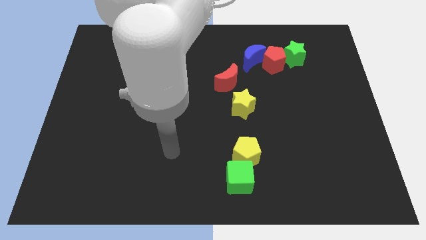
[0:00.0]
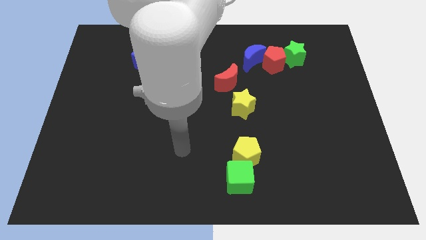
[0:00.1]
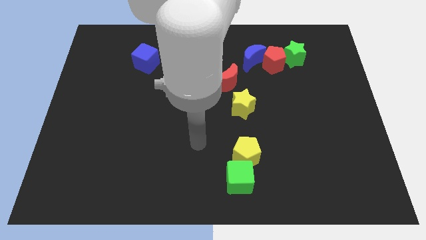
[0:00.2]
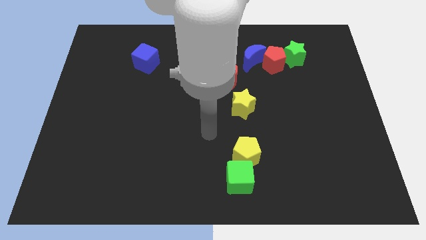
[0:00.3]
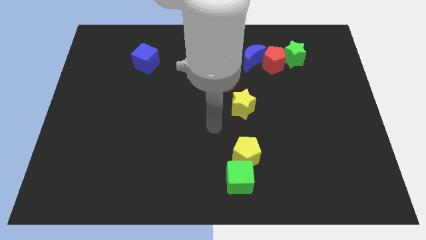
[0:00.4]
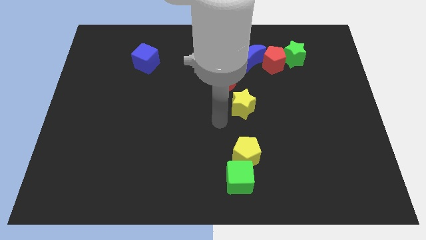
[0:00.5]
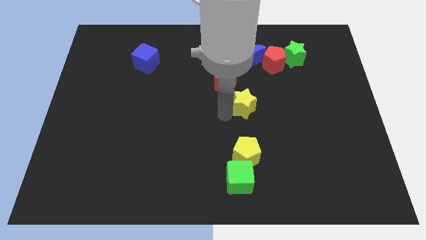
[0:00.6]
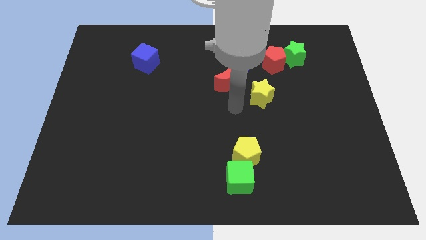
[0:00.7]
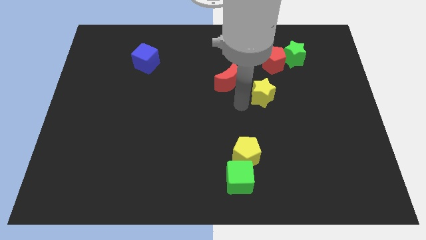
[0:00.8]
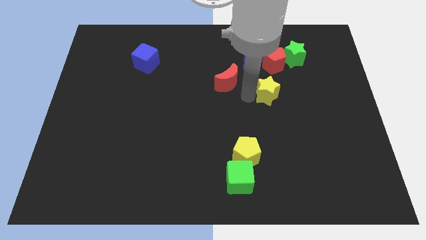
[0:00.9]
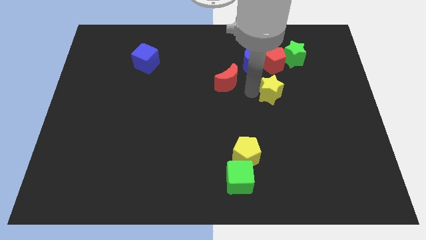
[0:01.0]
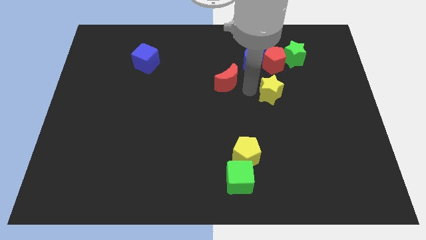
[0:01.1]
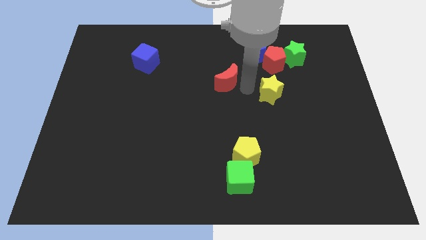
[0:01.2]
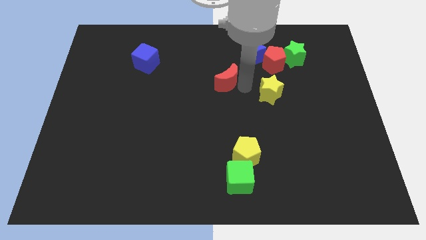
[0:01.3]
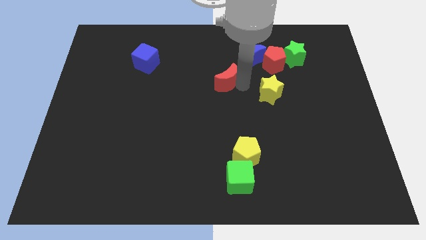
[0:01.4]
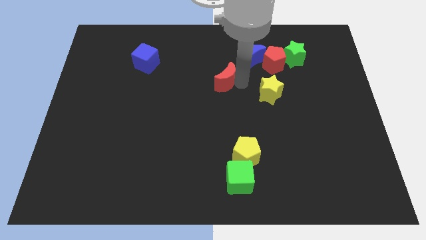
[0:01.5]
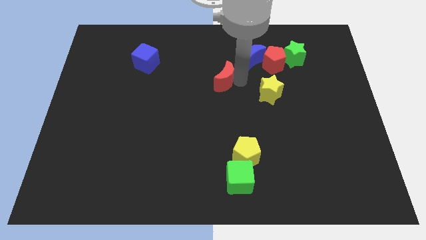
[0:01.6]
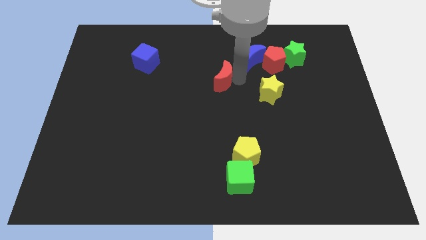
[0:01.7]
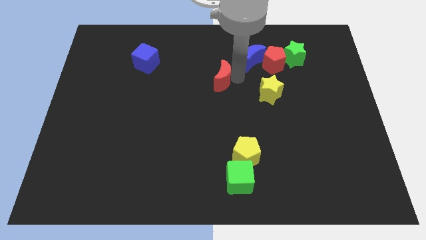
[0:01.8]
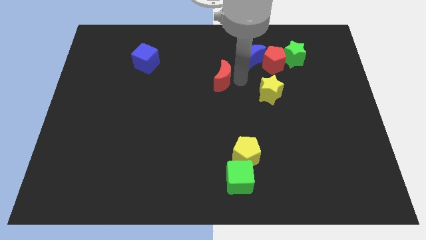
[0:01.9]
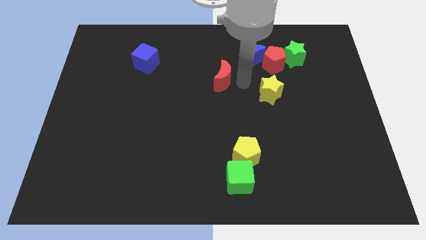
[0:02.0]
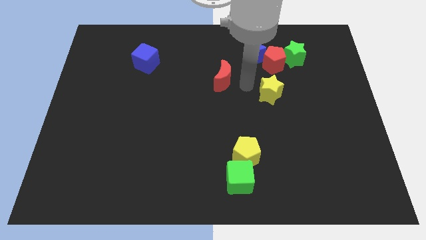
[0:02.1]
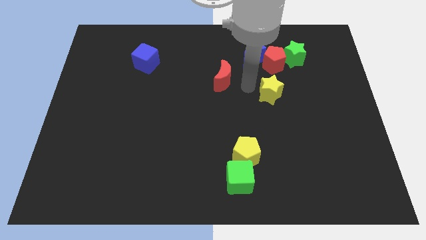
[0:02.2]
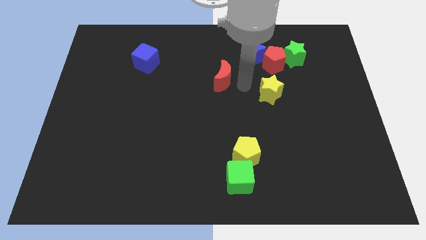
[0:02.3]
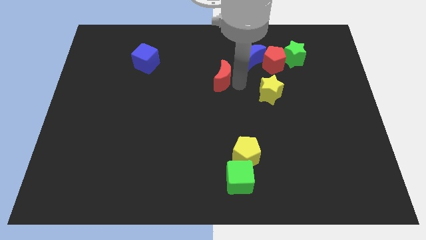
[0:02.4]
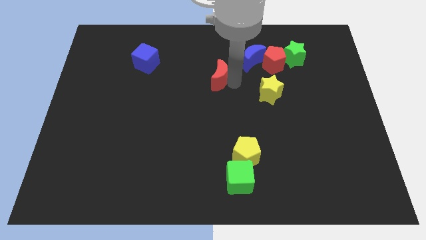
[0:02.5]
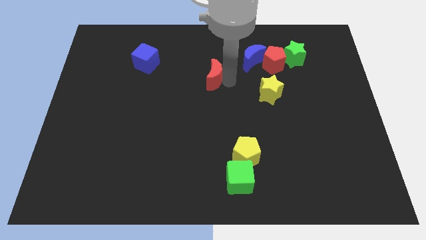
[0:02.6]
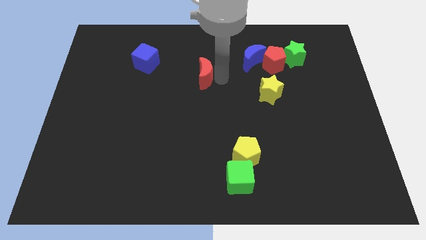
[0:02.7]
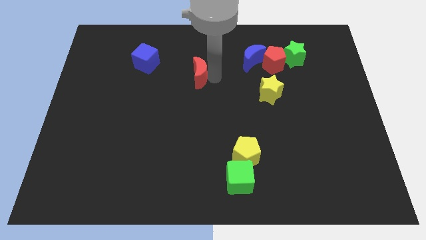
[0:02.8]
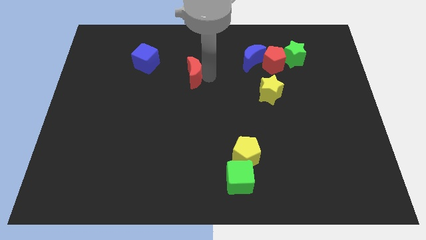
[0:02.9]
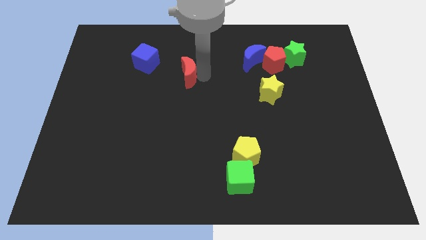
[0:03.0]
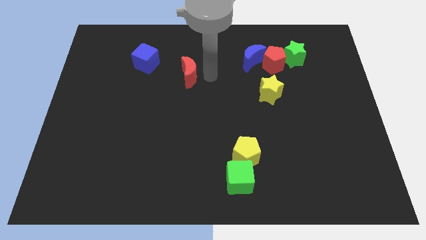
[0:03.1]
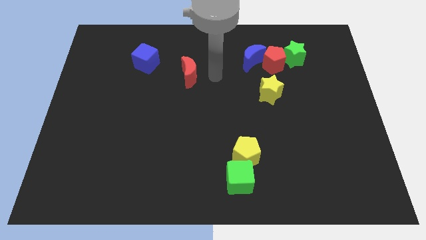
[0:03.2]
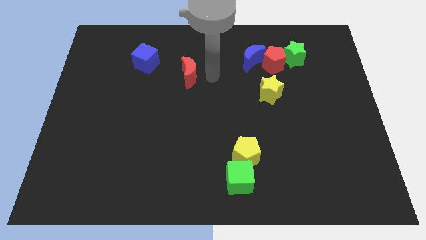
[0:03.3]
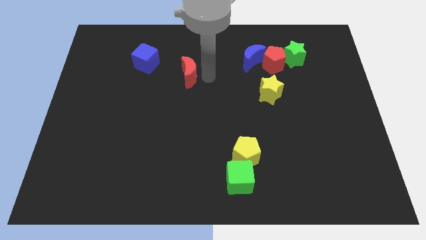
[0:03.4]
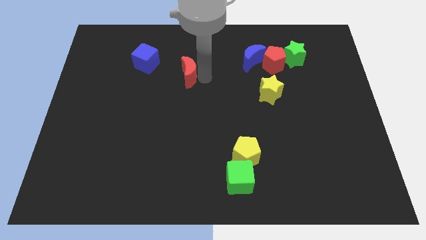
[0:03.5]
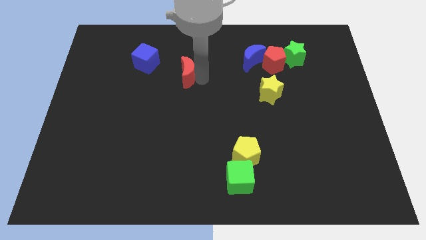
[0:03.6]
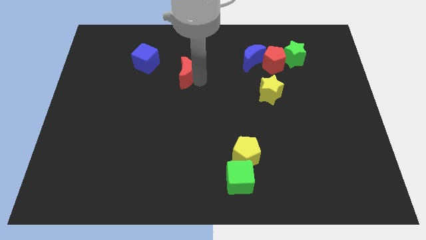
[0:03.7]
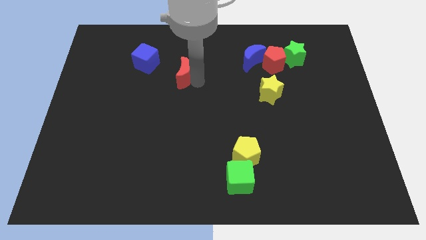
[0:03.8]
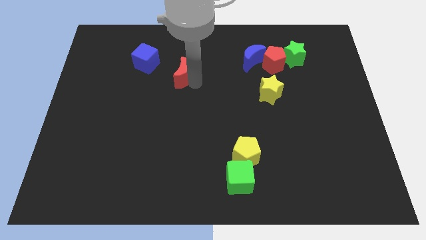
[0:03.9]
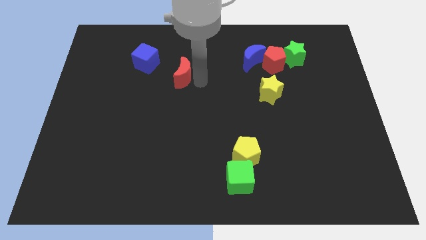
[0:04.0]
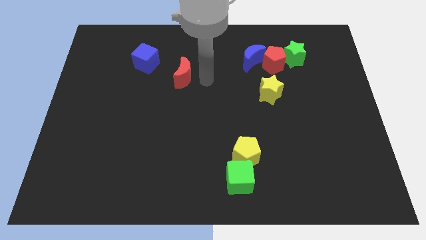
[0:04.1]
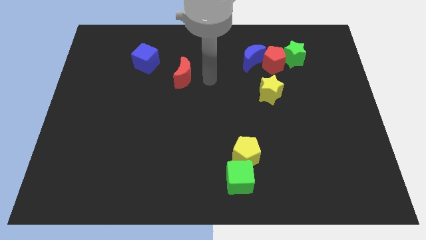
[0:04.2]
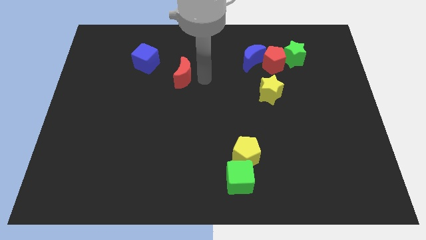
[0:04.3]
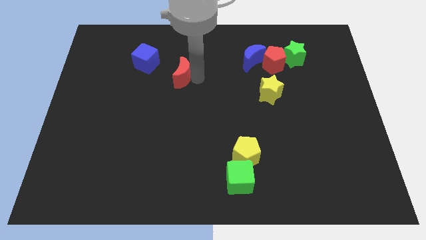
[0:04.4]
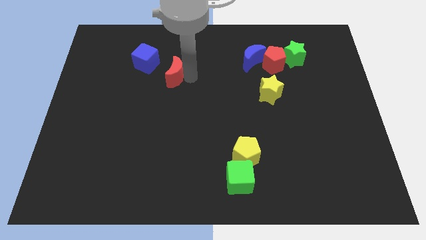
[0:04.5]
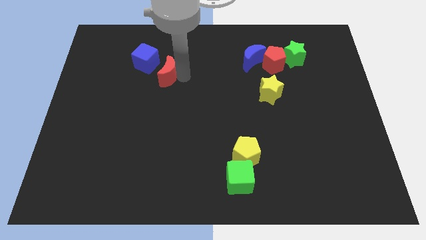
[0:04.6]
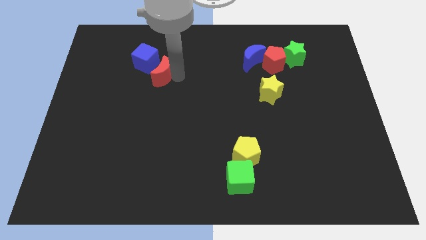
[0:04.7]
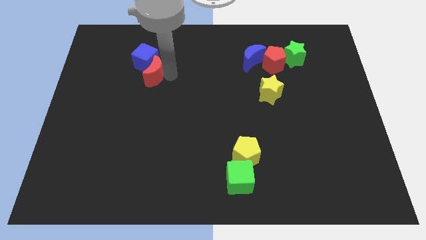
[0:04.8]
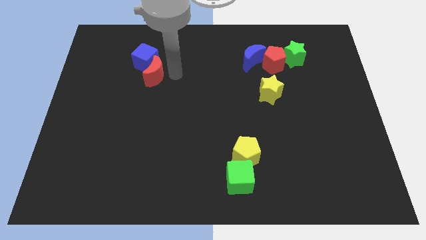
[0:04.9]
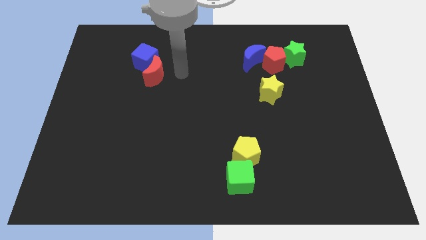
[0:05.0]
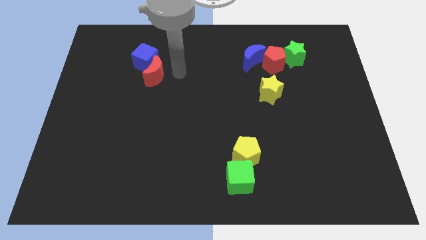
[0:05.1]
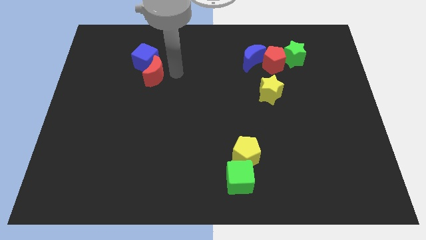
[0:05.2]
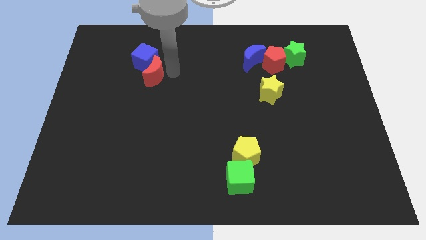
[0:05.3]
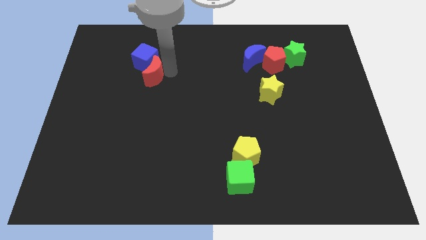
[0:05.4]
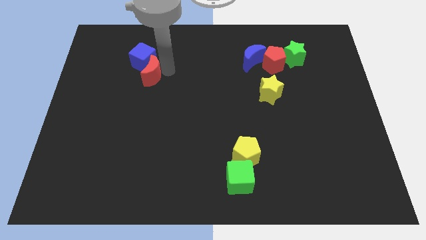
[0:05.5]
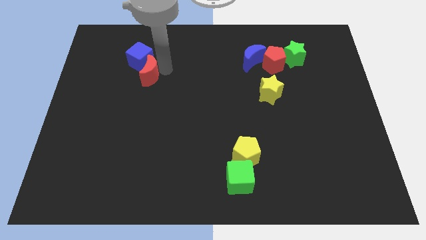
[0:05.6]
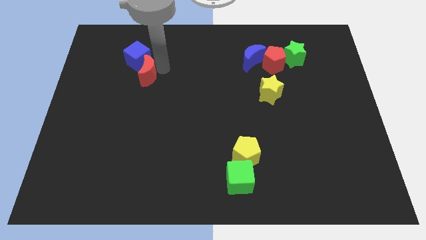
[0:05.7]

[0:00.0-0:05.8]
move the red moon left

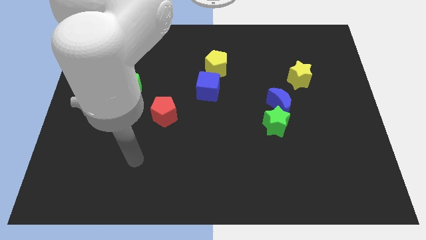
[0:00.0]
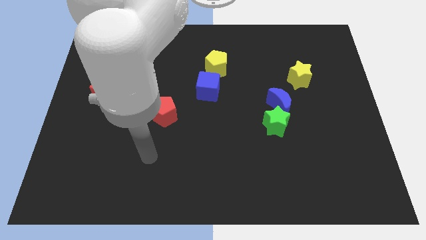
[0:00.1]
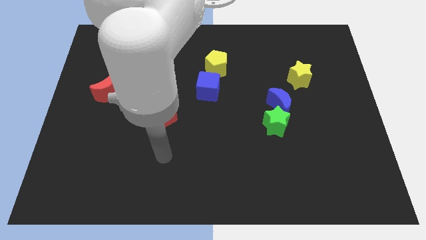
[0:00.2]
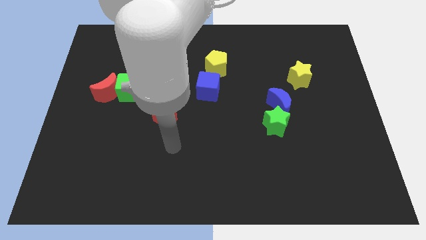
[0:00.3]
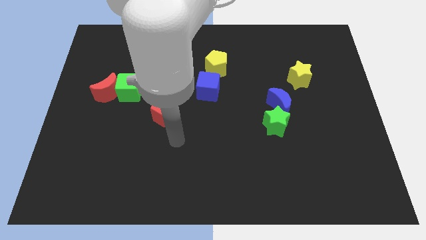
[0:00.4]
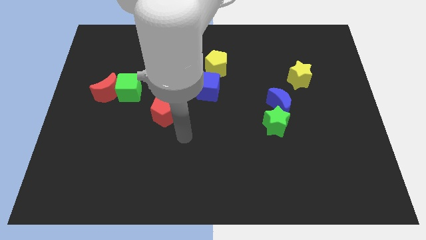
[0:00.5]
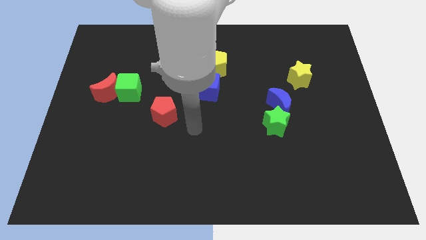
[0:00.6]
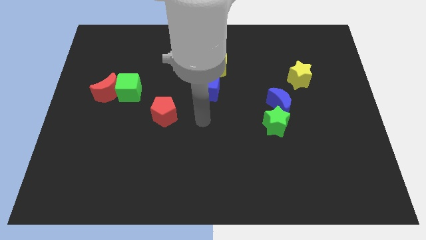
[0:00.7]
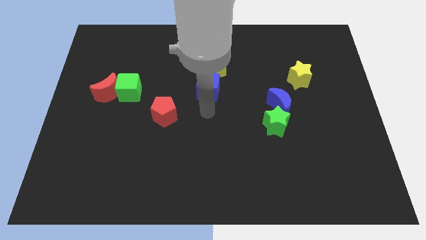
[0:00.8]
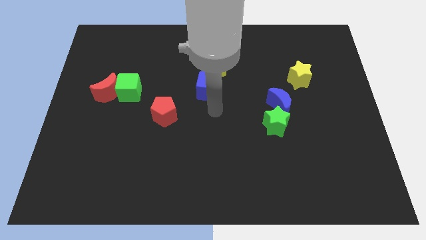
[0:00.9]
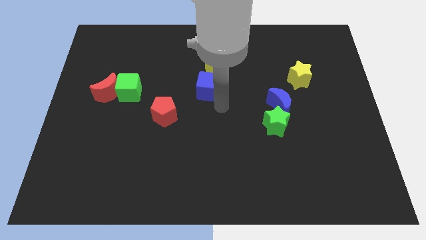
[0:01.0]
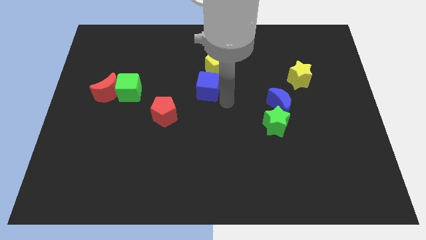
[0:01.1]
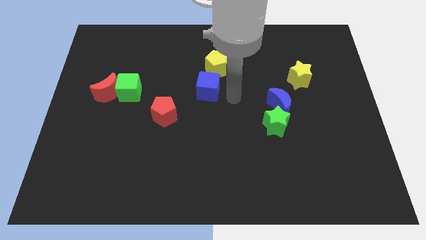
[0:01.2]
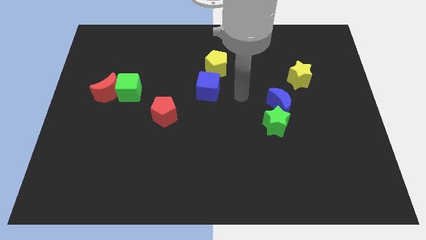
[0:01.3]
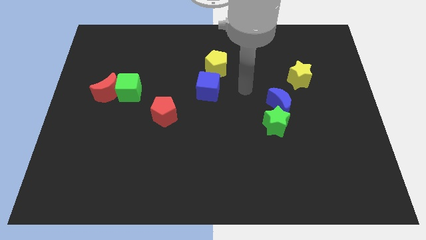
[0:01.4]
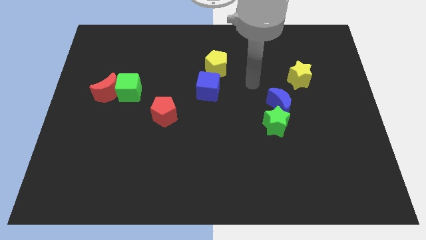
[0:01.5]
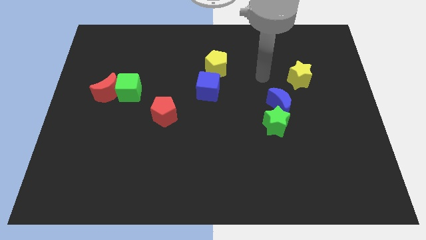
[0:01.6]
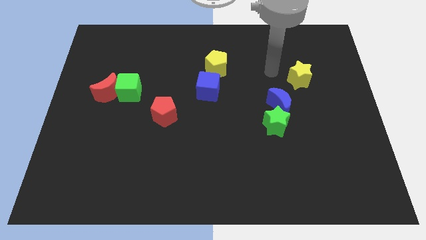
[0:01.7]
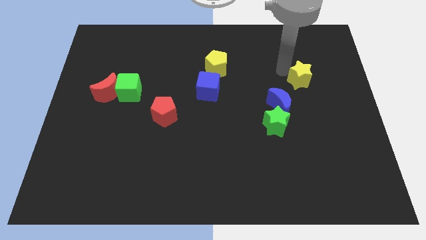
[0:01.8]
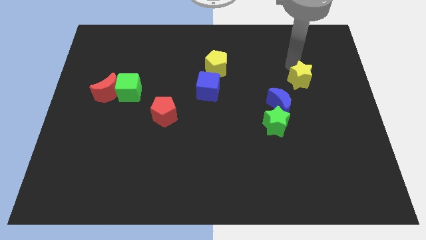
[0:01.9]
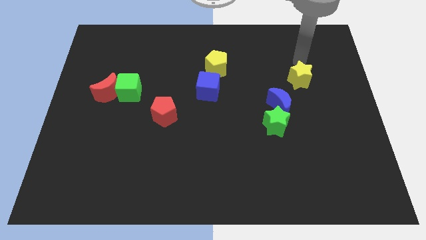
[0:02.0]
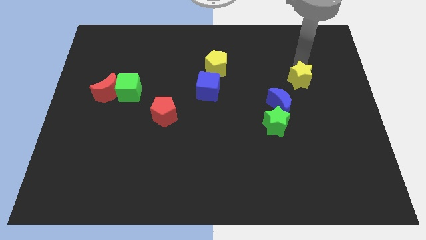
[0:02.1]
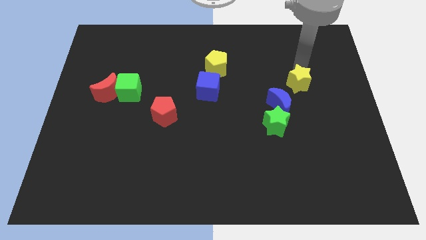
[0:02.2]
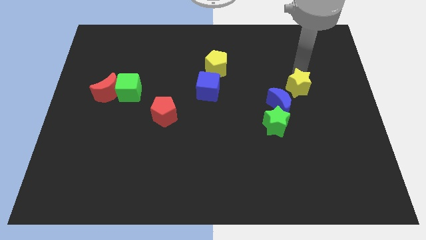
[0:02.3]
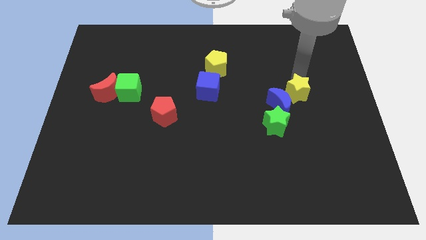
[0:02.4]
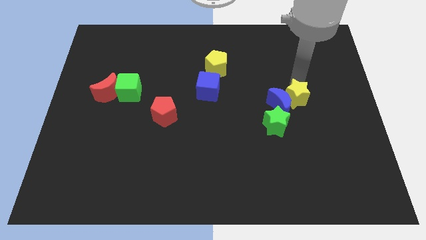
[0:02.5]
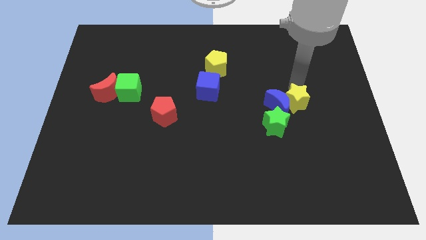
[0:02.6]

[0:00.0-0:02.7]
slightly slide the yellow star downwards
